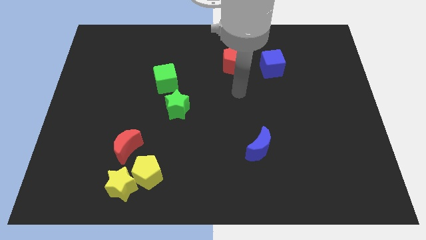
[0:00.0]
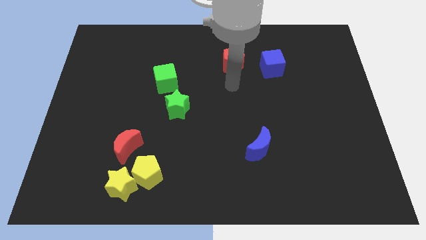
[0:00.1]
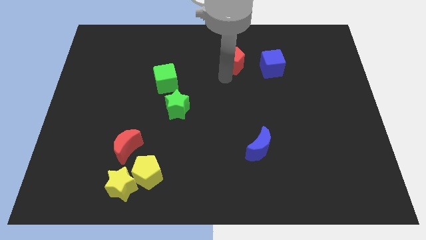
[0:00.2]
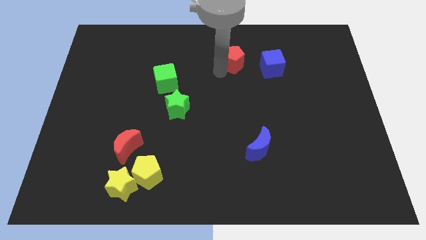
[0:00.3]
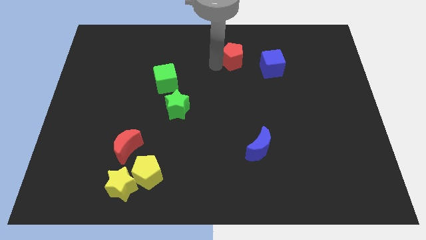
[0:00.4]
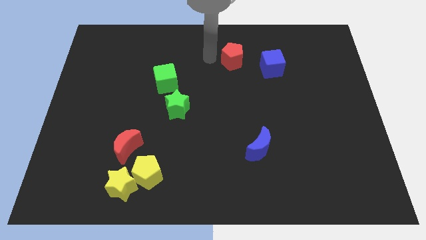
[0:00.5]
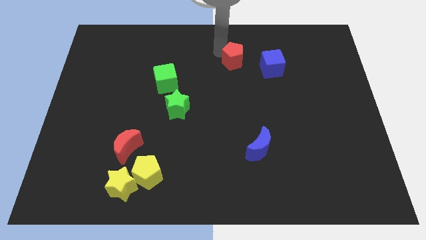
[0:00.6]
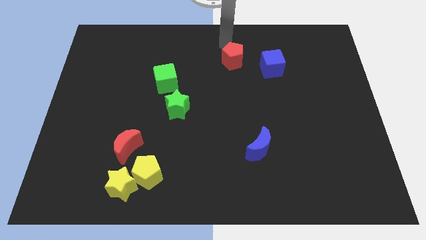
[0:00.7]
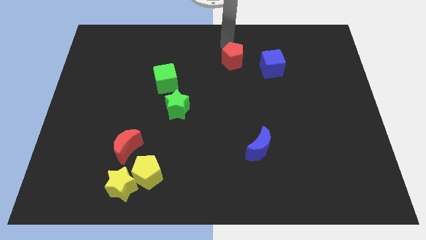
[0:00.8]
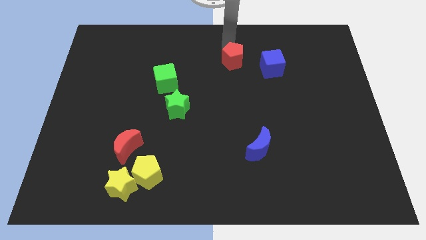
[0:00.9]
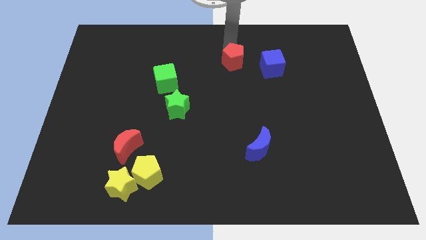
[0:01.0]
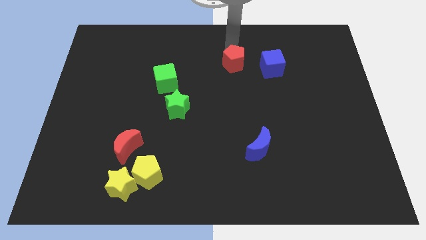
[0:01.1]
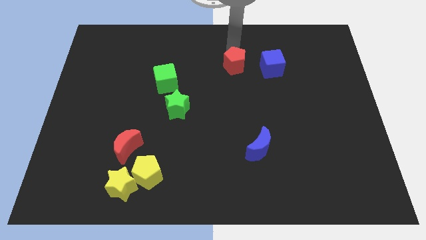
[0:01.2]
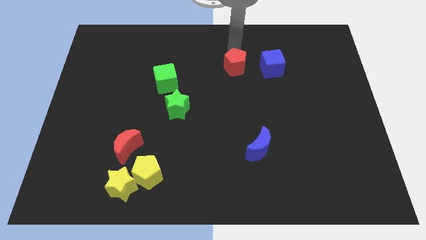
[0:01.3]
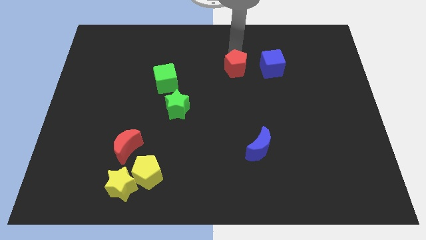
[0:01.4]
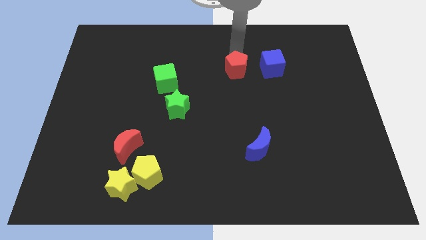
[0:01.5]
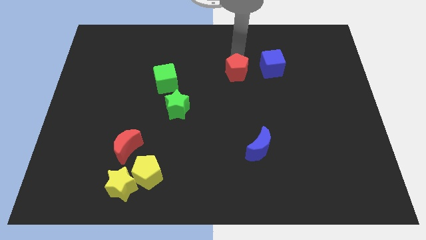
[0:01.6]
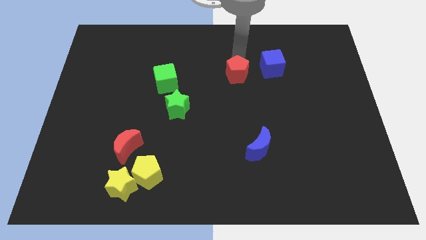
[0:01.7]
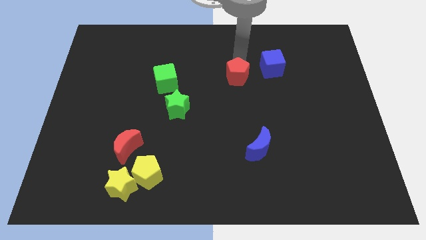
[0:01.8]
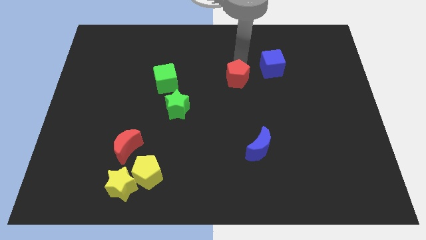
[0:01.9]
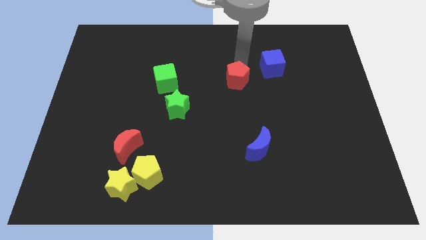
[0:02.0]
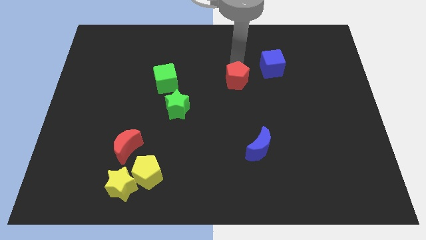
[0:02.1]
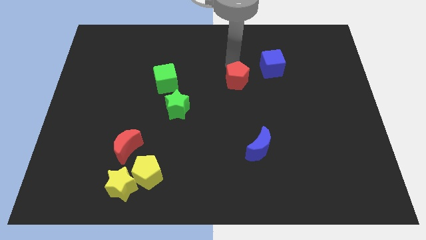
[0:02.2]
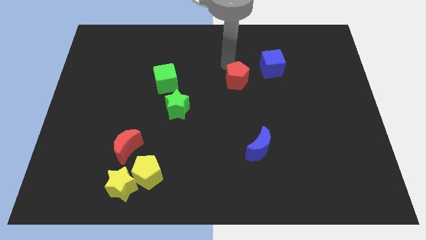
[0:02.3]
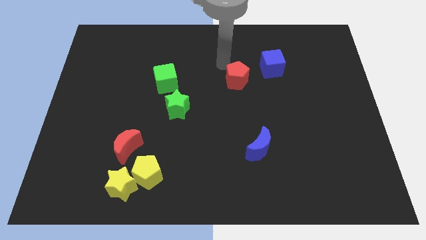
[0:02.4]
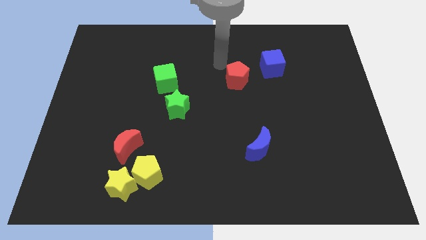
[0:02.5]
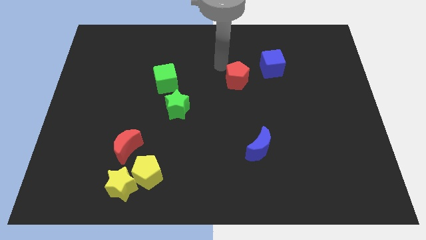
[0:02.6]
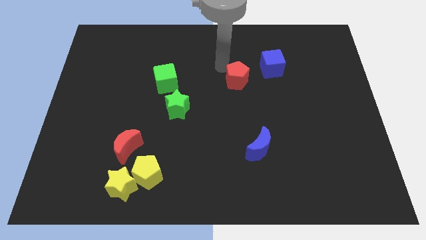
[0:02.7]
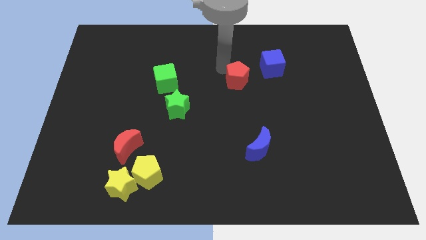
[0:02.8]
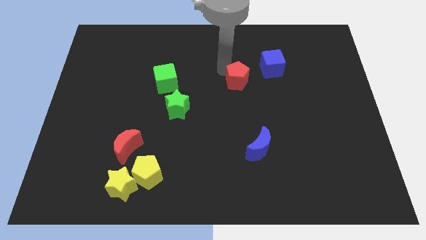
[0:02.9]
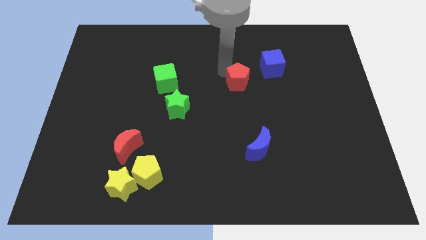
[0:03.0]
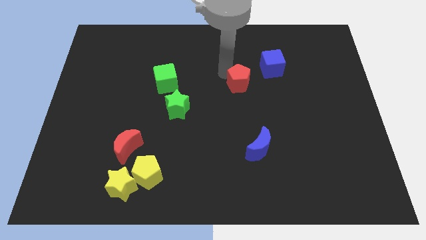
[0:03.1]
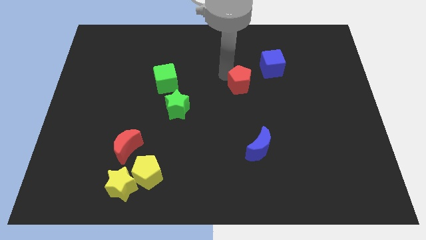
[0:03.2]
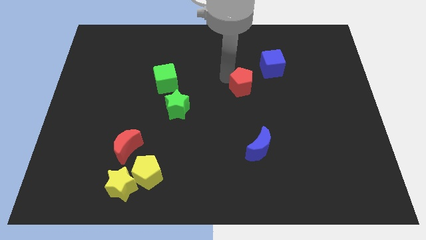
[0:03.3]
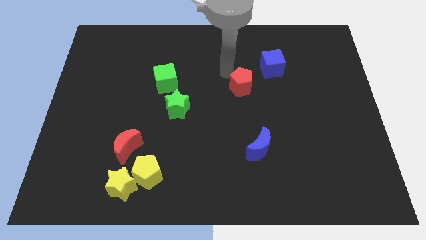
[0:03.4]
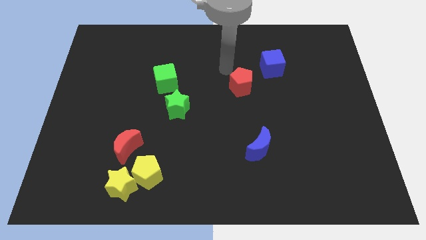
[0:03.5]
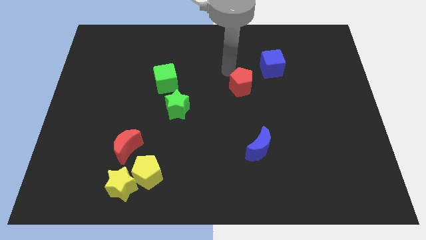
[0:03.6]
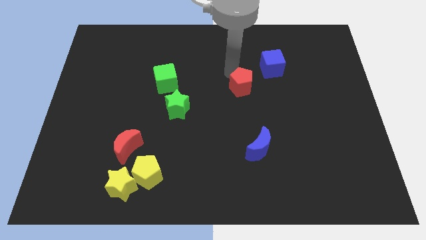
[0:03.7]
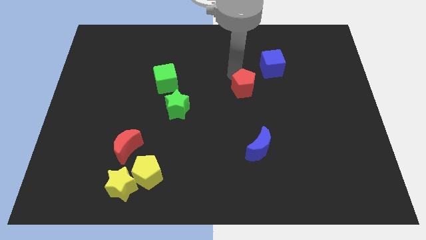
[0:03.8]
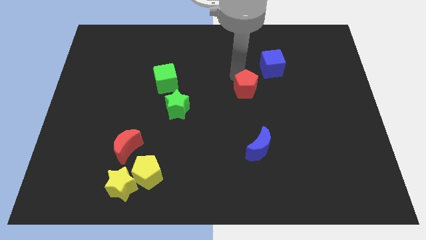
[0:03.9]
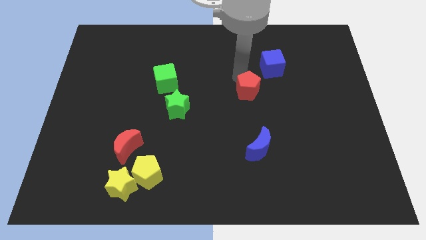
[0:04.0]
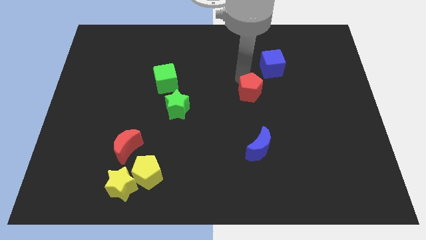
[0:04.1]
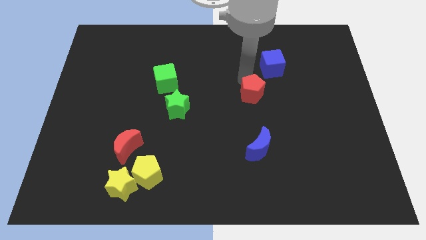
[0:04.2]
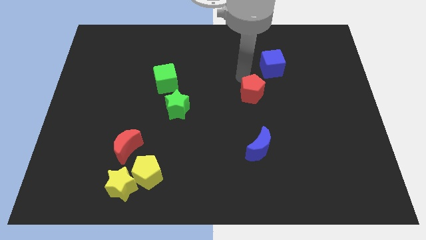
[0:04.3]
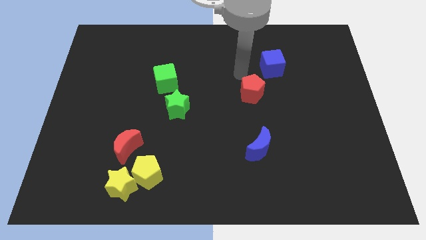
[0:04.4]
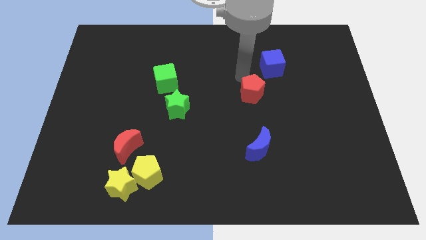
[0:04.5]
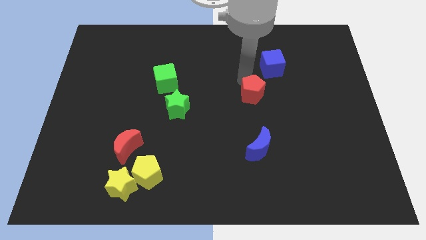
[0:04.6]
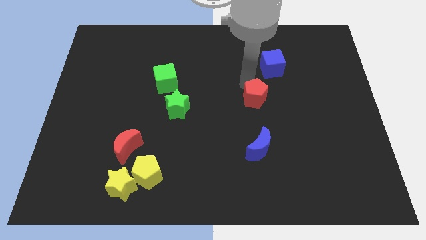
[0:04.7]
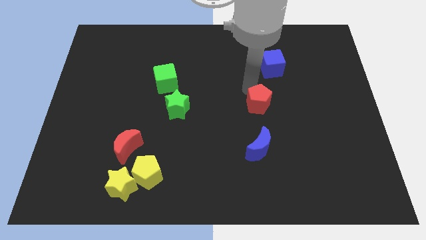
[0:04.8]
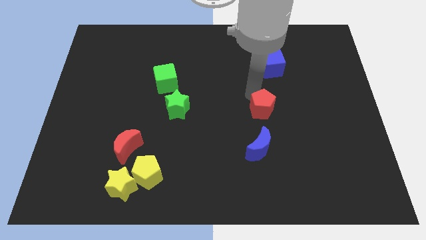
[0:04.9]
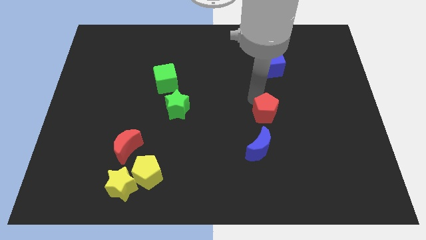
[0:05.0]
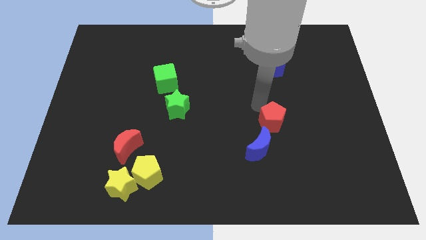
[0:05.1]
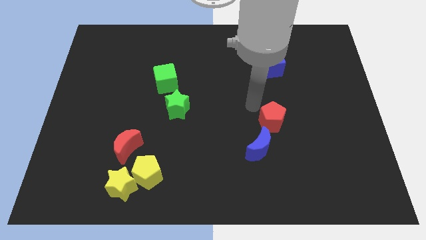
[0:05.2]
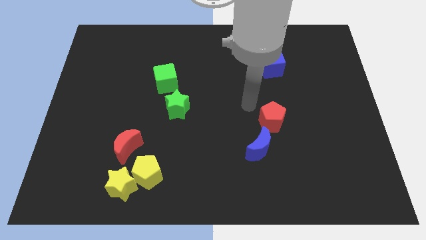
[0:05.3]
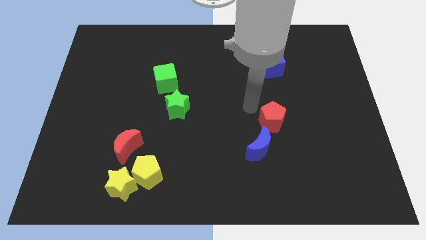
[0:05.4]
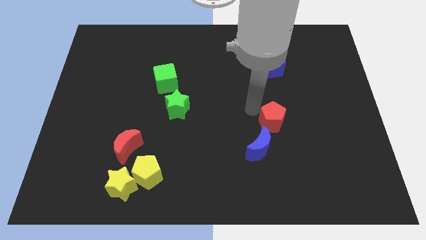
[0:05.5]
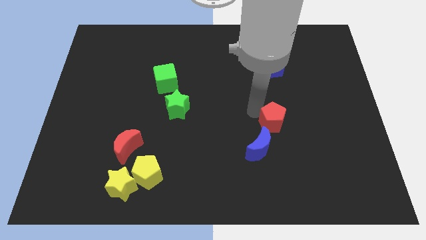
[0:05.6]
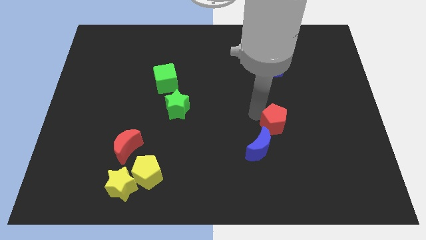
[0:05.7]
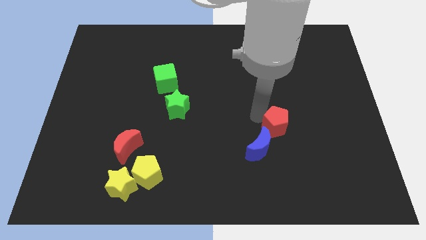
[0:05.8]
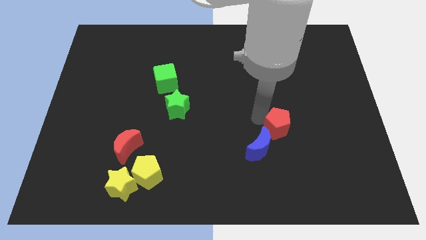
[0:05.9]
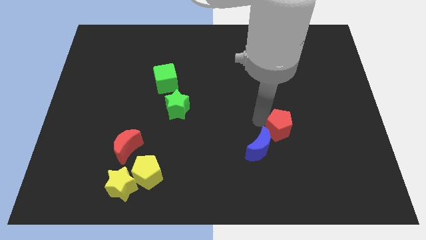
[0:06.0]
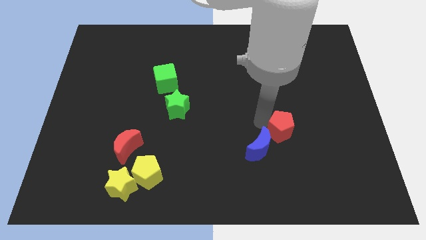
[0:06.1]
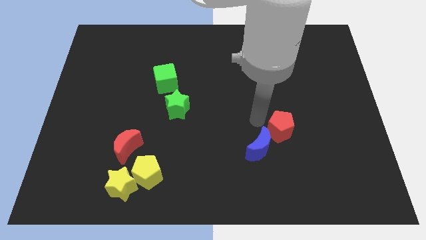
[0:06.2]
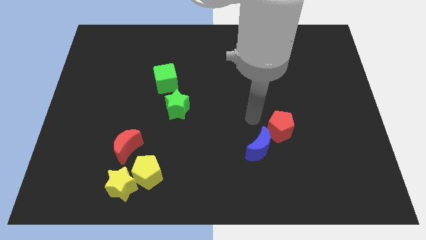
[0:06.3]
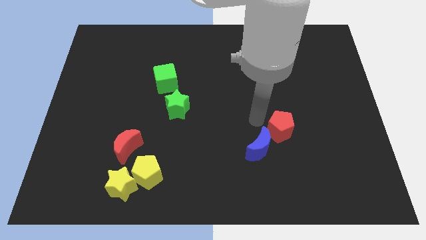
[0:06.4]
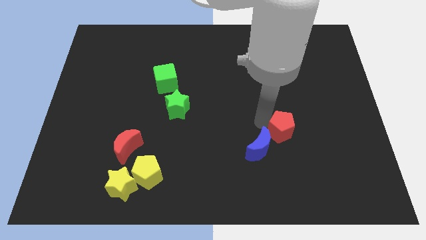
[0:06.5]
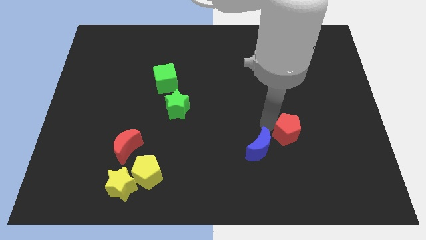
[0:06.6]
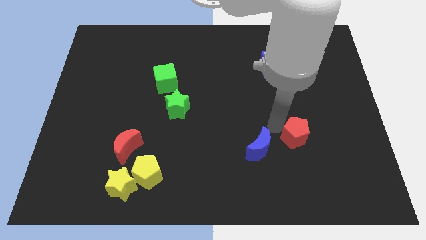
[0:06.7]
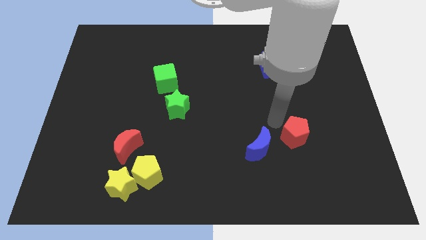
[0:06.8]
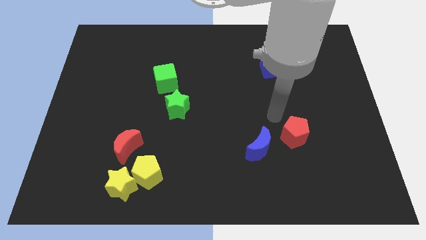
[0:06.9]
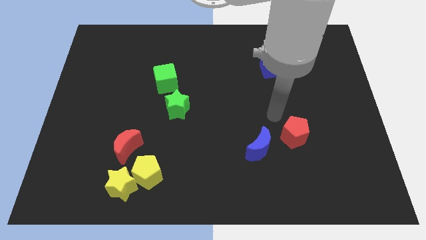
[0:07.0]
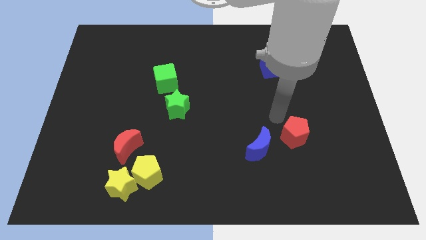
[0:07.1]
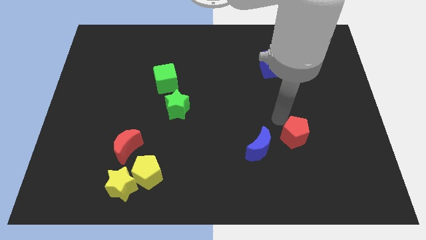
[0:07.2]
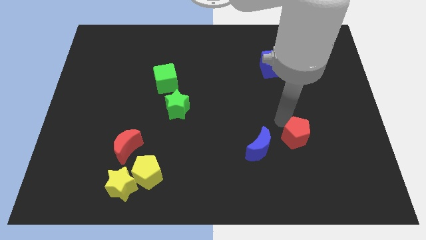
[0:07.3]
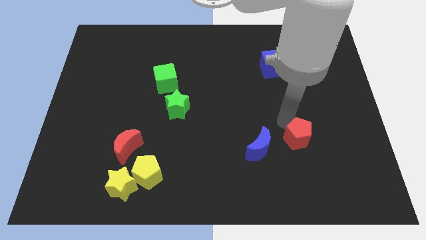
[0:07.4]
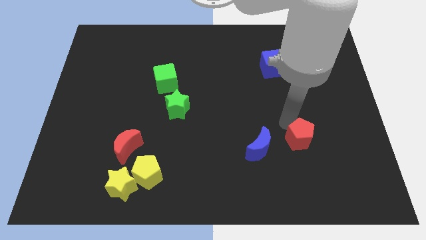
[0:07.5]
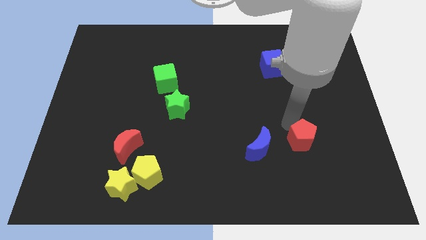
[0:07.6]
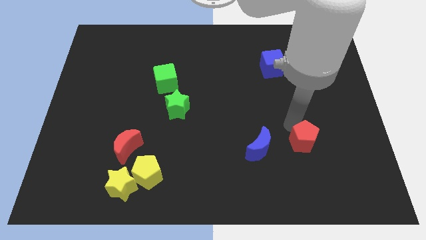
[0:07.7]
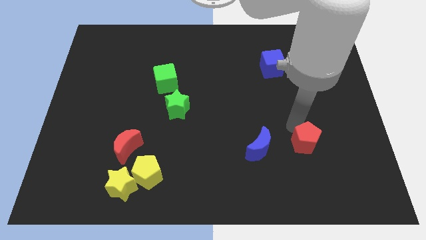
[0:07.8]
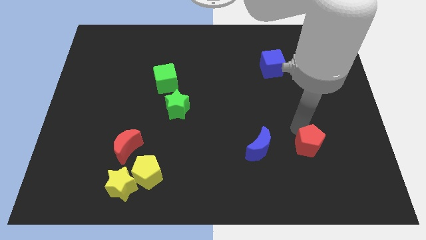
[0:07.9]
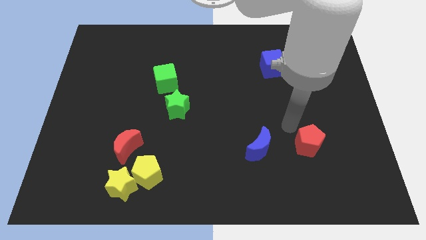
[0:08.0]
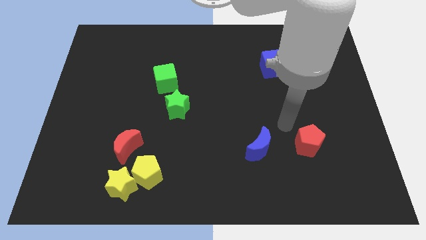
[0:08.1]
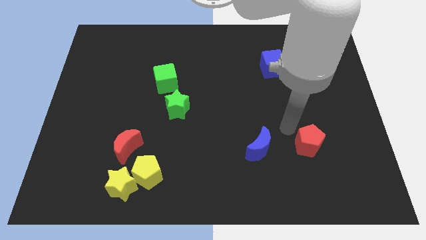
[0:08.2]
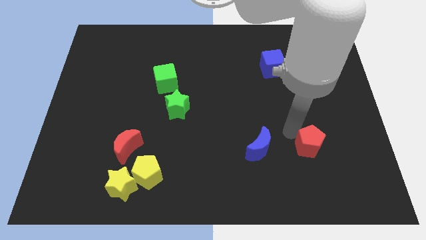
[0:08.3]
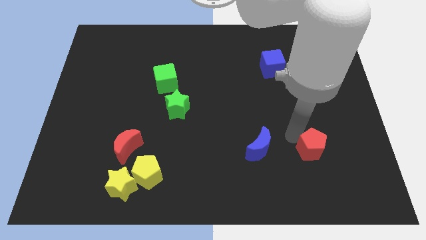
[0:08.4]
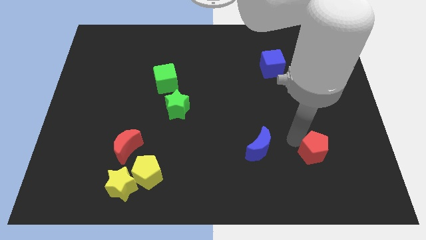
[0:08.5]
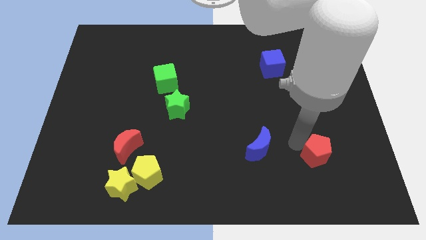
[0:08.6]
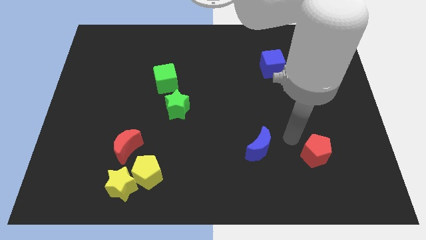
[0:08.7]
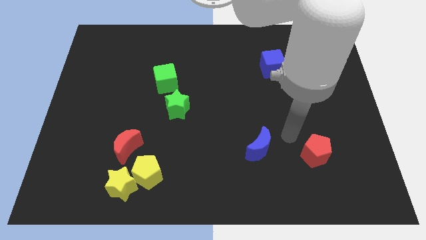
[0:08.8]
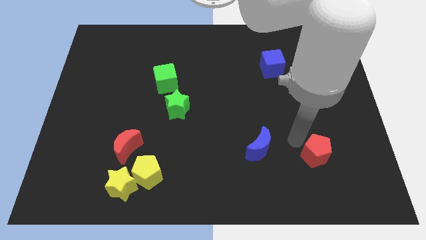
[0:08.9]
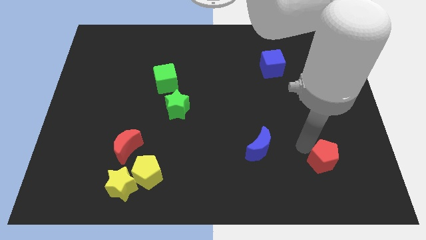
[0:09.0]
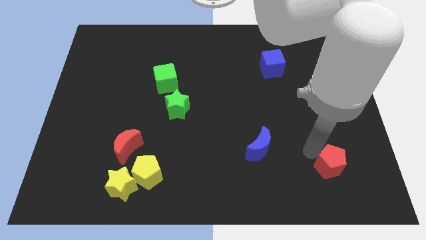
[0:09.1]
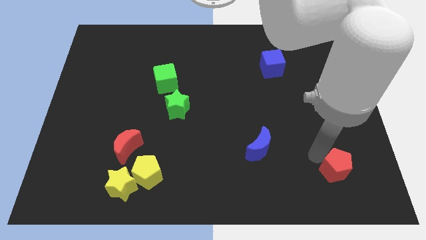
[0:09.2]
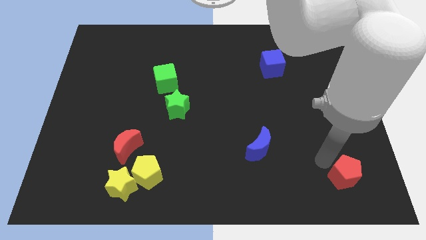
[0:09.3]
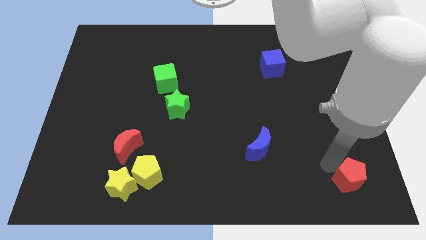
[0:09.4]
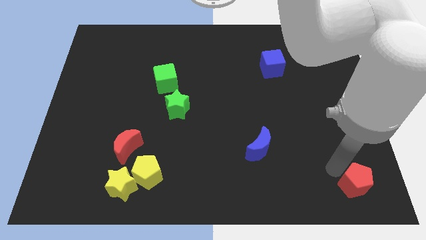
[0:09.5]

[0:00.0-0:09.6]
move the red pentagon to the bottom right of the board
